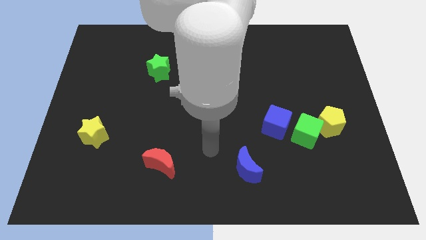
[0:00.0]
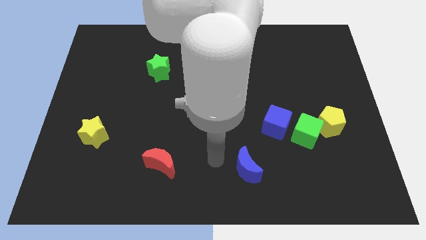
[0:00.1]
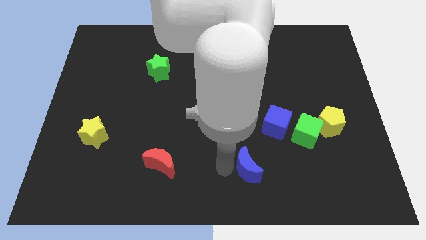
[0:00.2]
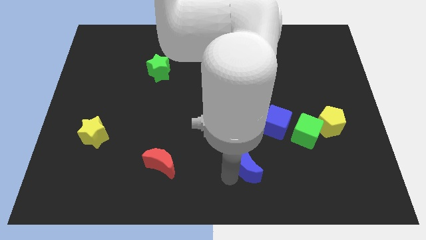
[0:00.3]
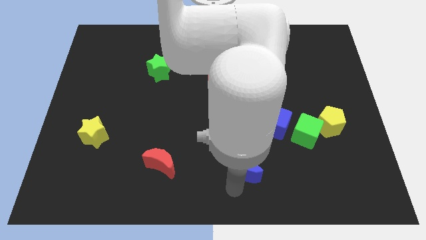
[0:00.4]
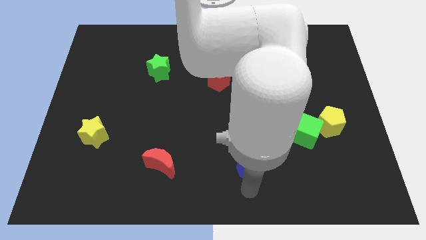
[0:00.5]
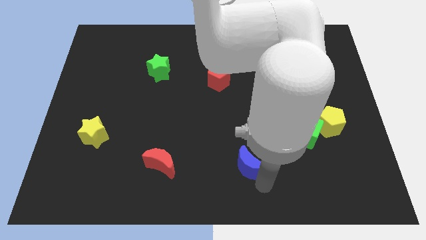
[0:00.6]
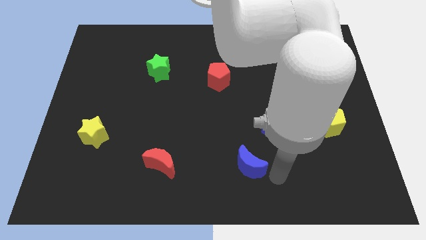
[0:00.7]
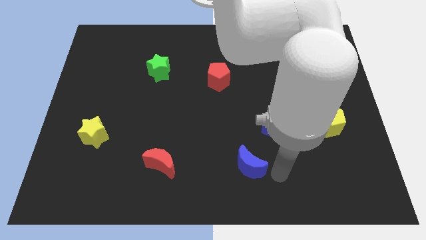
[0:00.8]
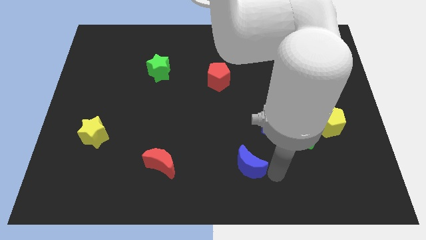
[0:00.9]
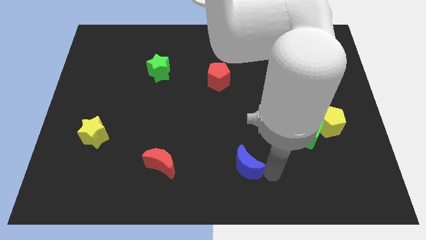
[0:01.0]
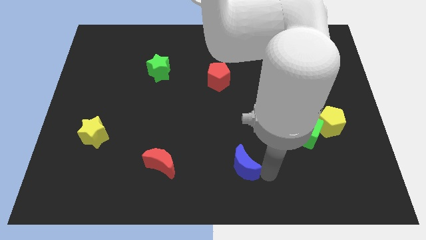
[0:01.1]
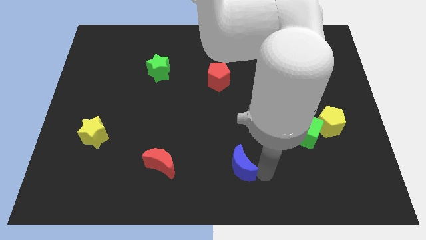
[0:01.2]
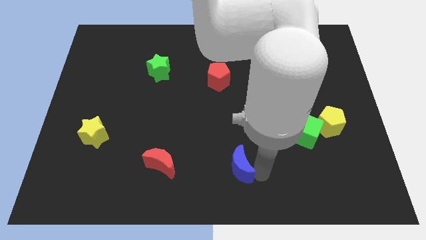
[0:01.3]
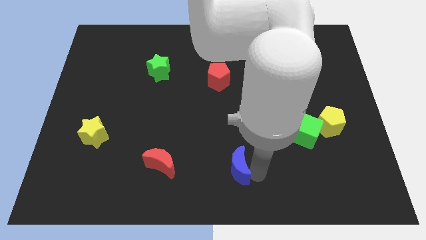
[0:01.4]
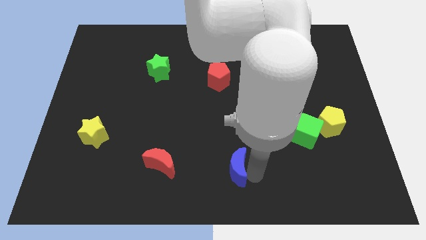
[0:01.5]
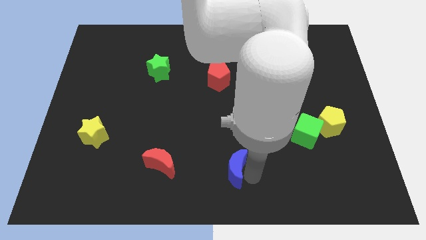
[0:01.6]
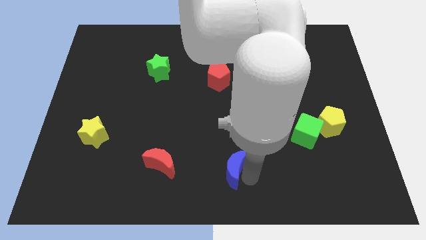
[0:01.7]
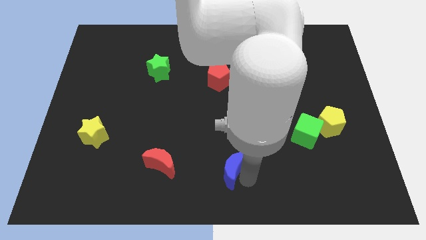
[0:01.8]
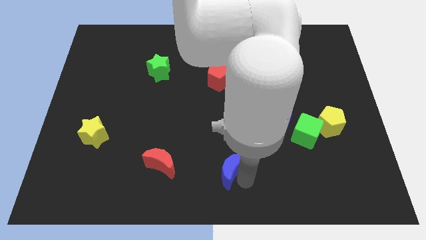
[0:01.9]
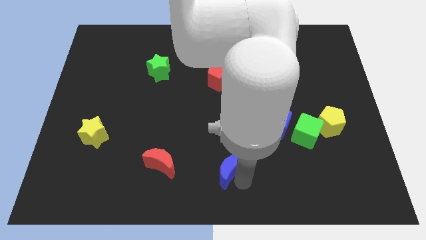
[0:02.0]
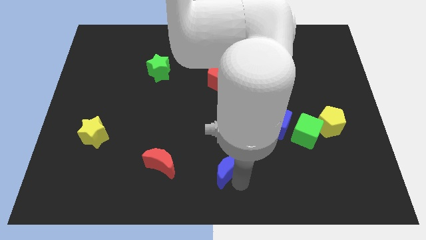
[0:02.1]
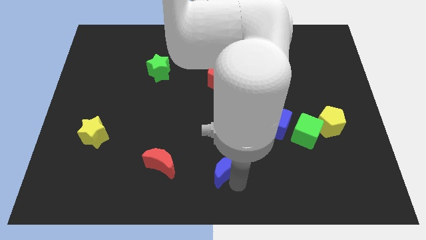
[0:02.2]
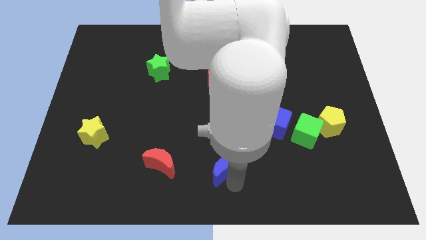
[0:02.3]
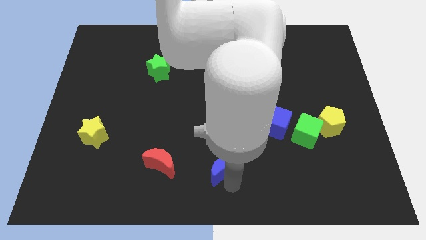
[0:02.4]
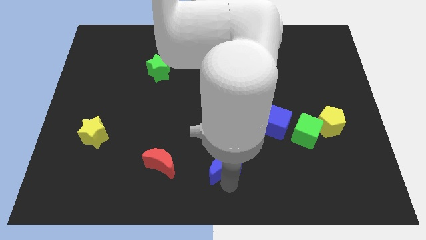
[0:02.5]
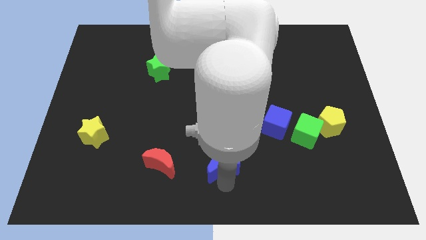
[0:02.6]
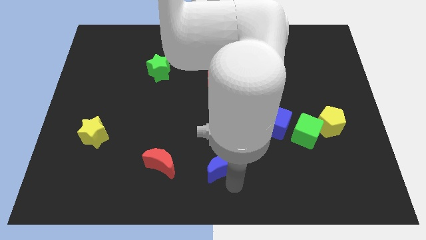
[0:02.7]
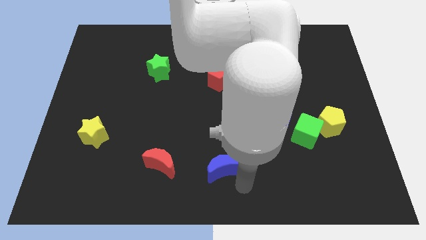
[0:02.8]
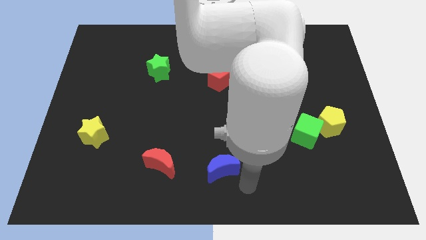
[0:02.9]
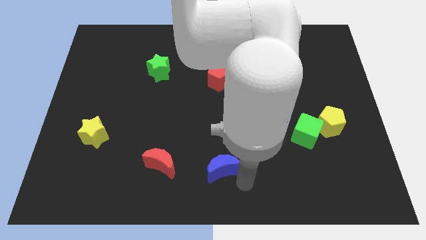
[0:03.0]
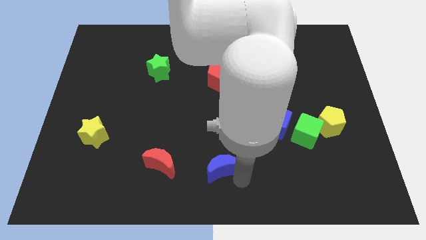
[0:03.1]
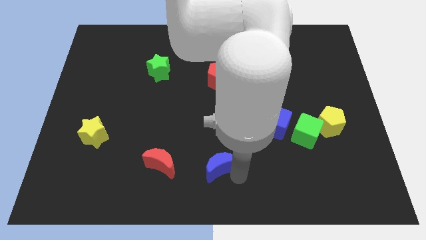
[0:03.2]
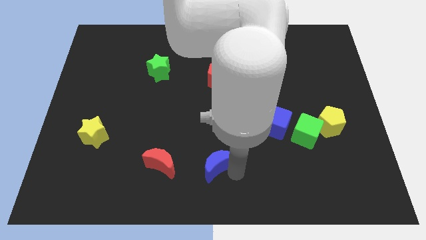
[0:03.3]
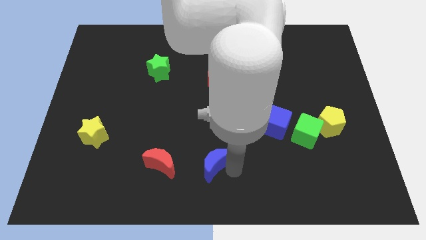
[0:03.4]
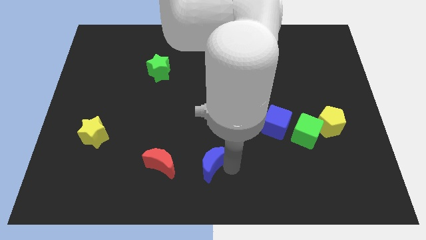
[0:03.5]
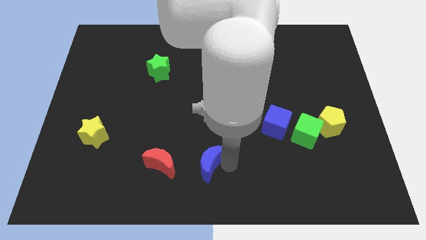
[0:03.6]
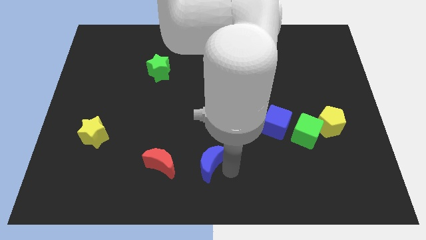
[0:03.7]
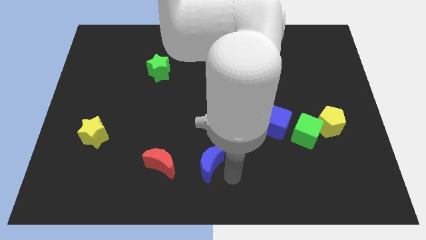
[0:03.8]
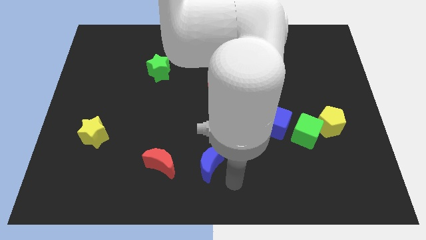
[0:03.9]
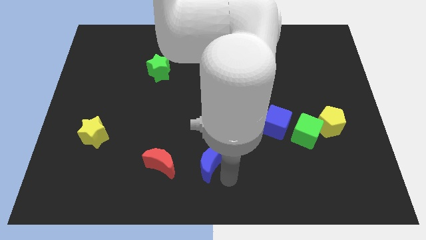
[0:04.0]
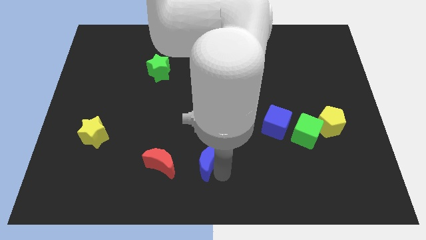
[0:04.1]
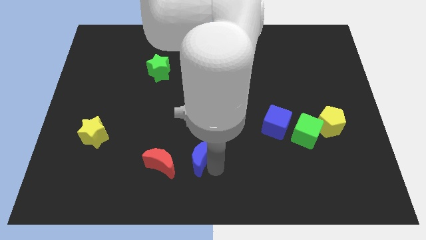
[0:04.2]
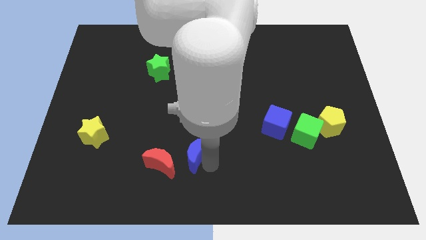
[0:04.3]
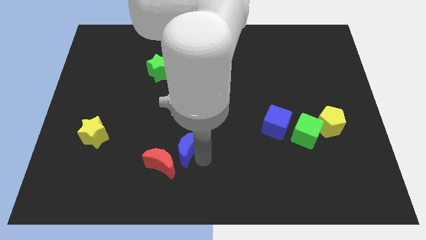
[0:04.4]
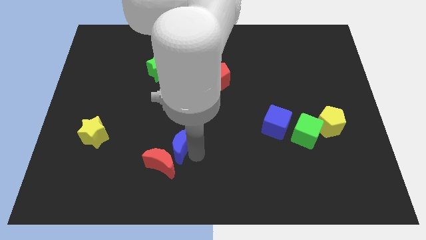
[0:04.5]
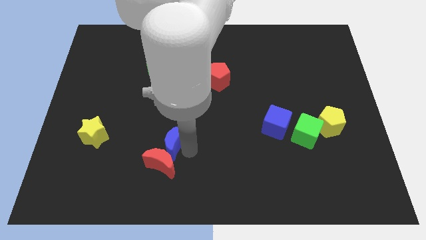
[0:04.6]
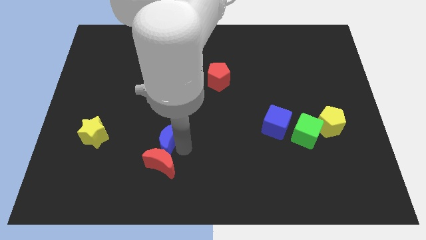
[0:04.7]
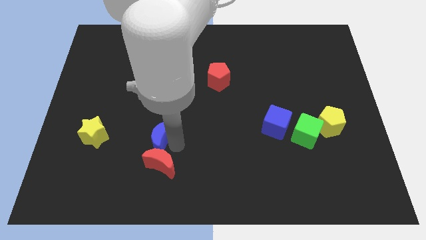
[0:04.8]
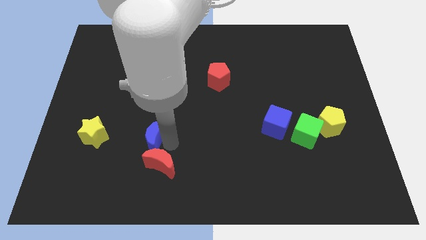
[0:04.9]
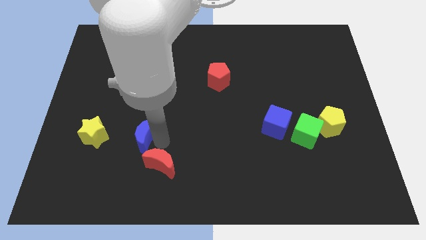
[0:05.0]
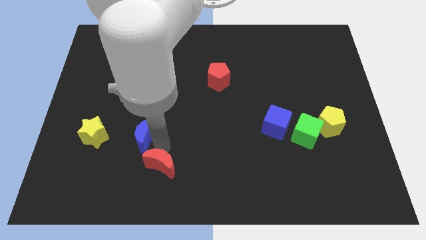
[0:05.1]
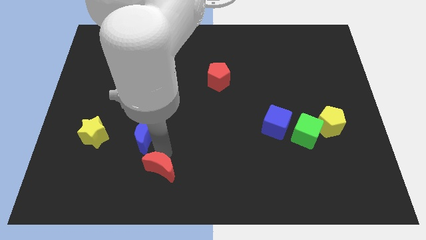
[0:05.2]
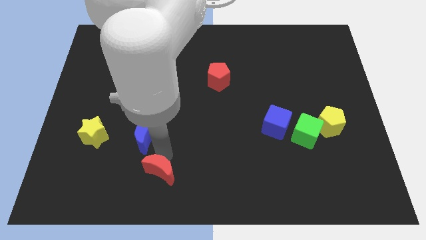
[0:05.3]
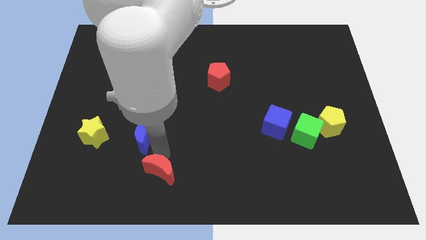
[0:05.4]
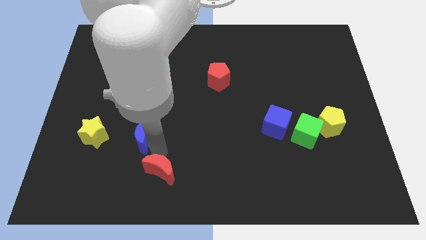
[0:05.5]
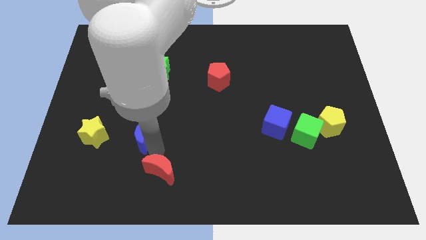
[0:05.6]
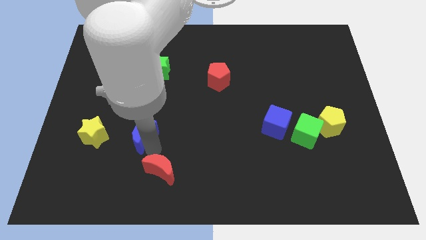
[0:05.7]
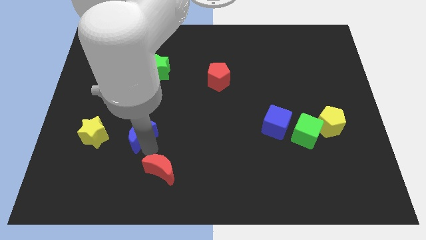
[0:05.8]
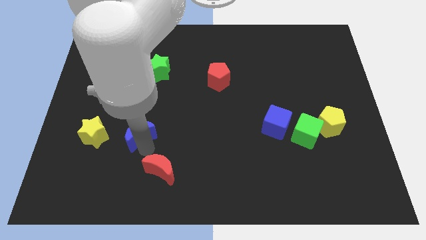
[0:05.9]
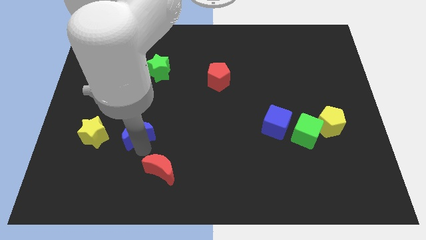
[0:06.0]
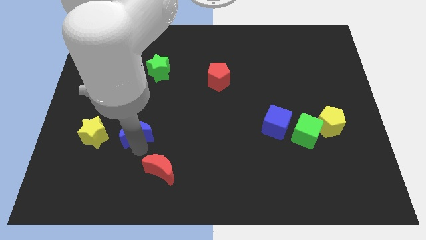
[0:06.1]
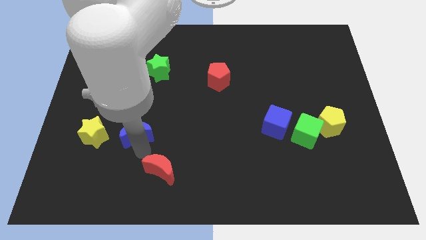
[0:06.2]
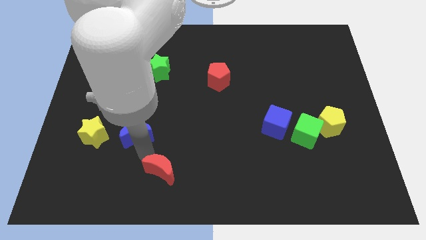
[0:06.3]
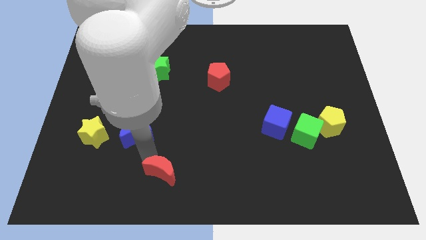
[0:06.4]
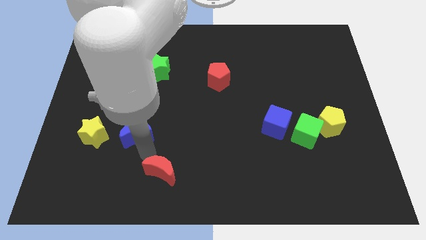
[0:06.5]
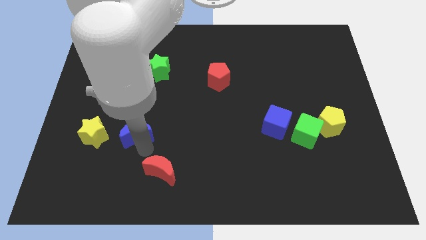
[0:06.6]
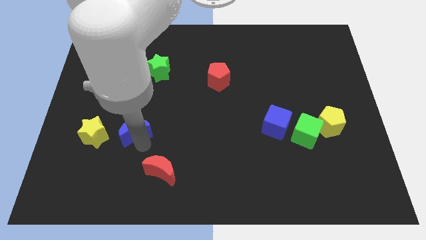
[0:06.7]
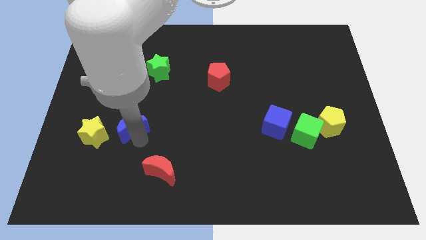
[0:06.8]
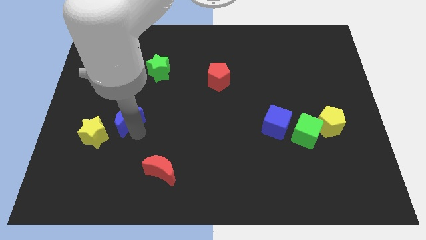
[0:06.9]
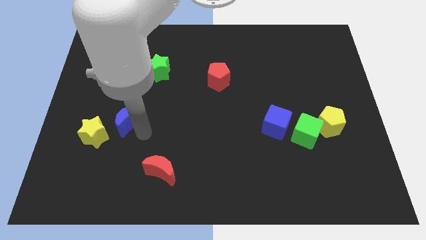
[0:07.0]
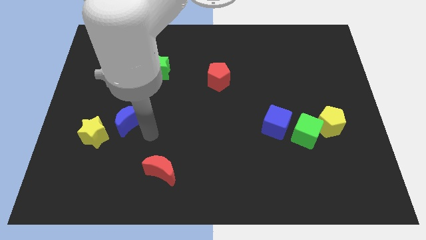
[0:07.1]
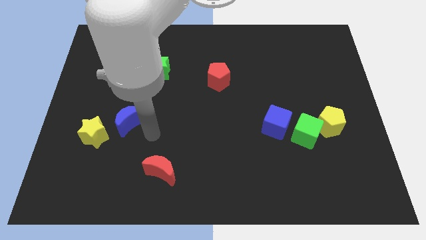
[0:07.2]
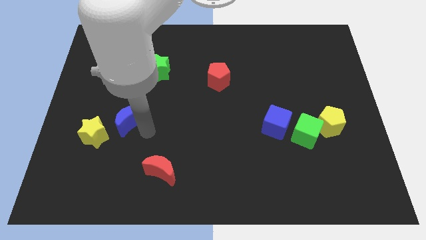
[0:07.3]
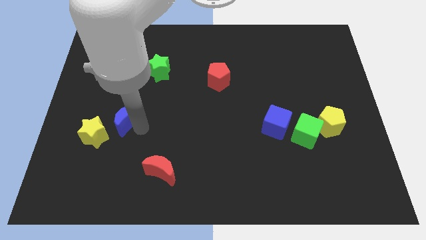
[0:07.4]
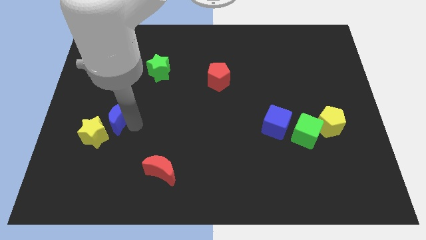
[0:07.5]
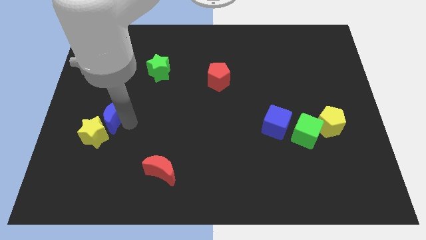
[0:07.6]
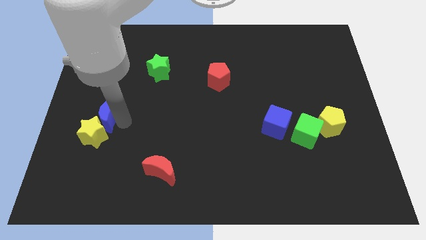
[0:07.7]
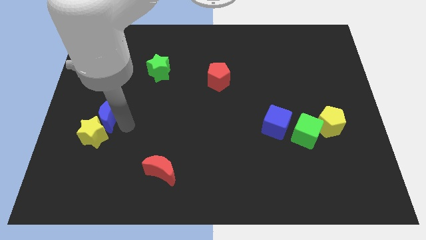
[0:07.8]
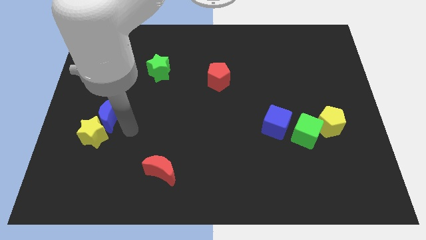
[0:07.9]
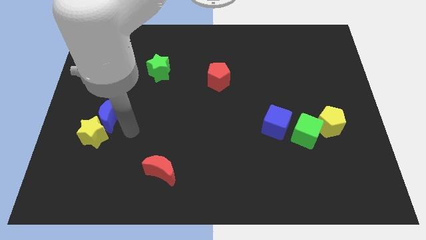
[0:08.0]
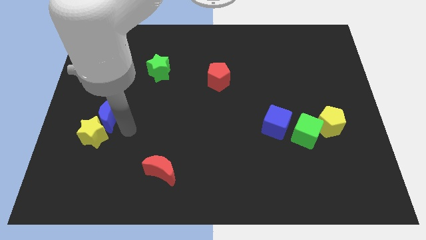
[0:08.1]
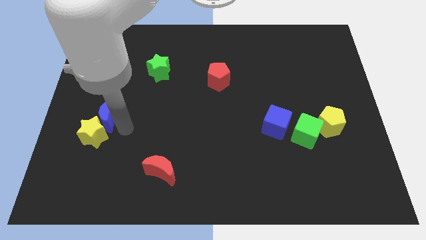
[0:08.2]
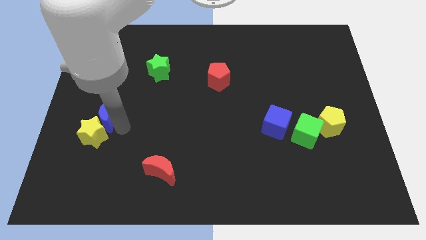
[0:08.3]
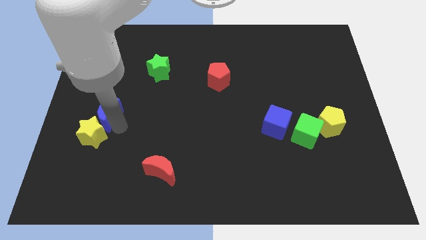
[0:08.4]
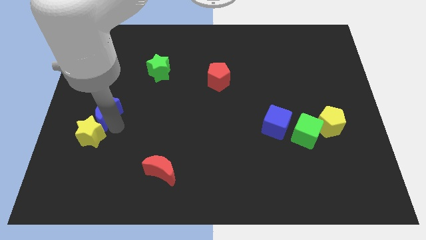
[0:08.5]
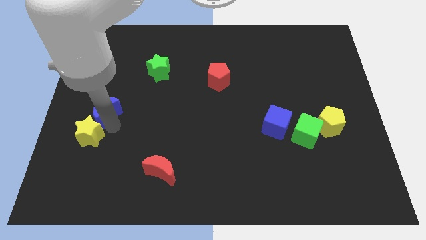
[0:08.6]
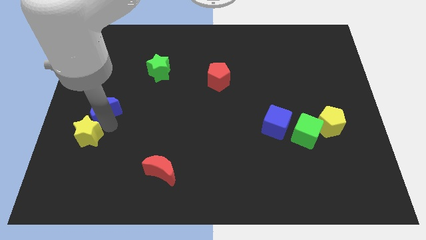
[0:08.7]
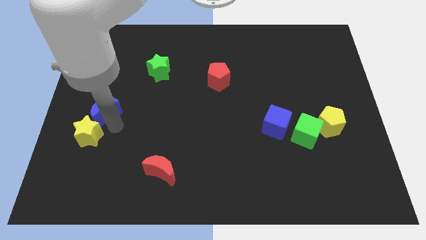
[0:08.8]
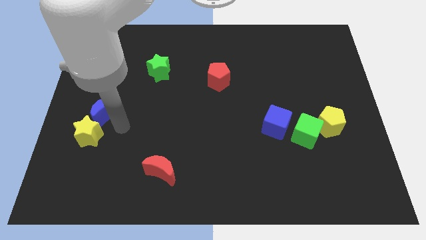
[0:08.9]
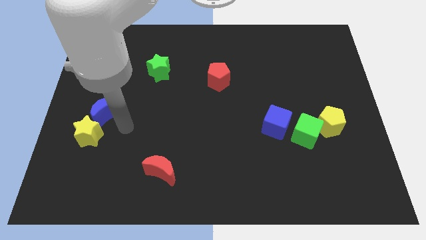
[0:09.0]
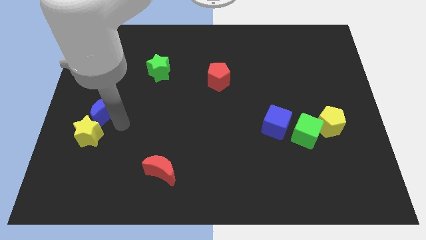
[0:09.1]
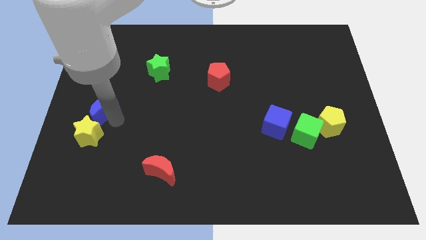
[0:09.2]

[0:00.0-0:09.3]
put the blue moon to the left side of the board
